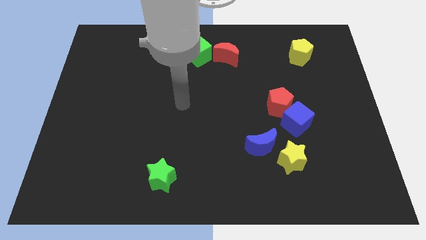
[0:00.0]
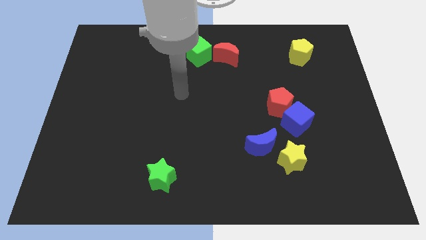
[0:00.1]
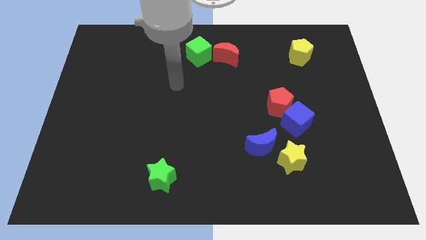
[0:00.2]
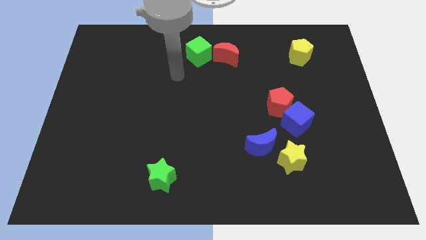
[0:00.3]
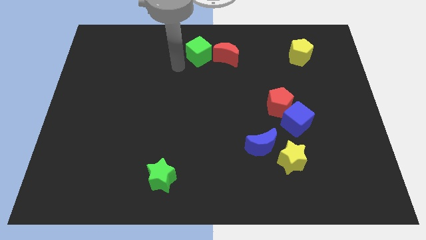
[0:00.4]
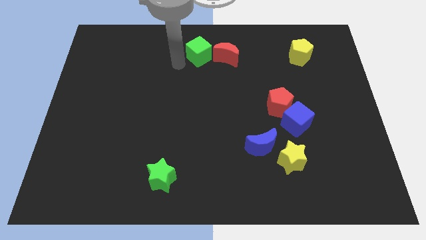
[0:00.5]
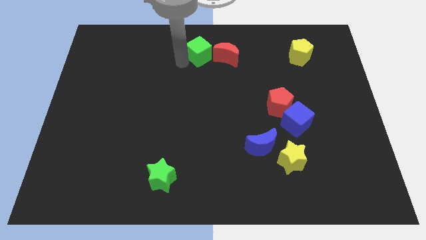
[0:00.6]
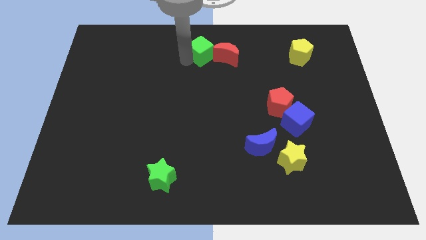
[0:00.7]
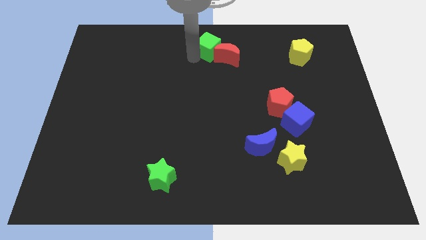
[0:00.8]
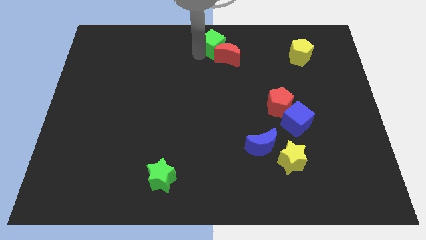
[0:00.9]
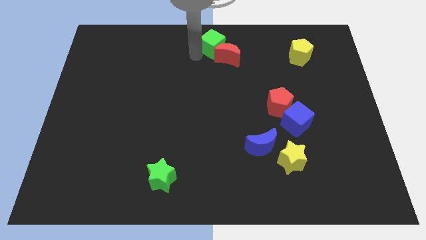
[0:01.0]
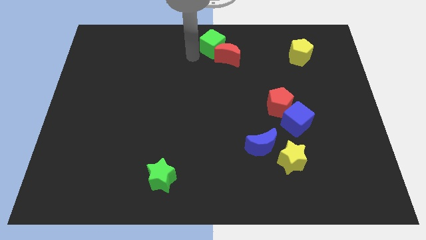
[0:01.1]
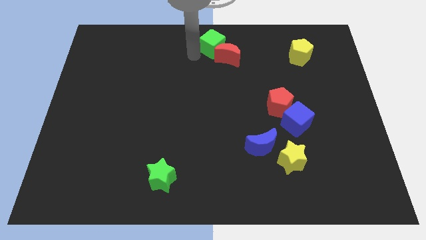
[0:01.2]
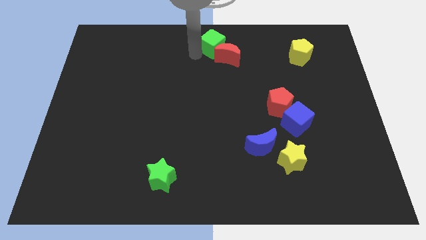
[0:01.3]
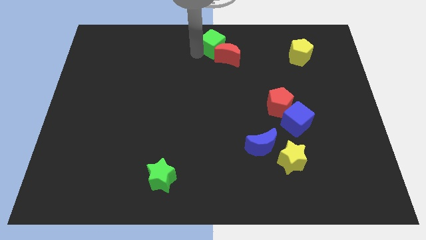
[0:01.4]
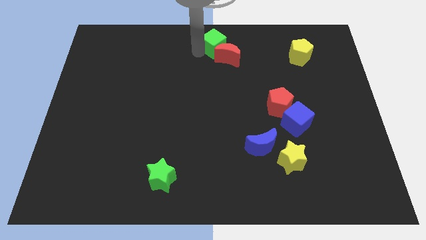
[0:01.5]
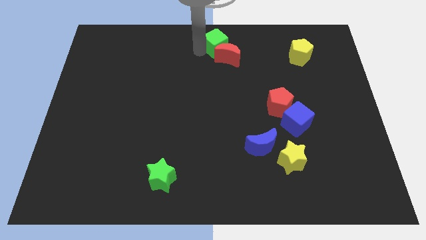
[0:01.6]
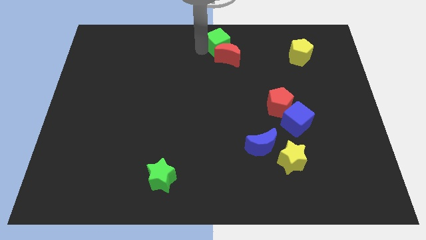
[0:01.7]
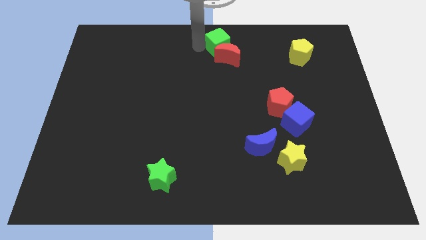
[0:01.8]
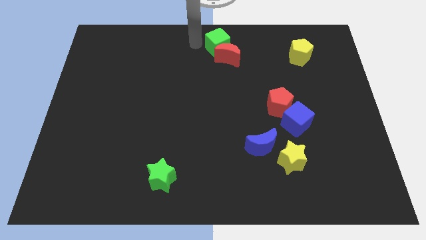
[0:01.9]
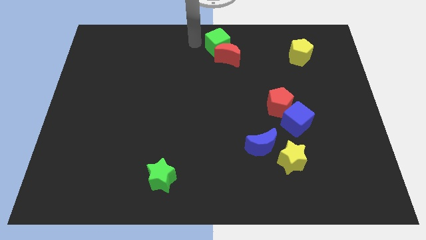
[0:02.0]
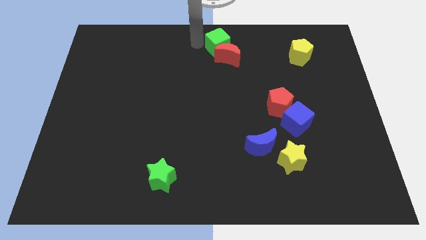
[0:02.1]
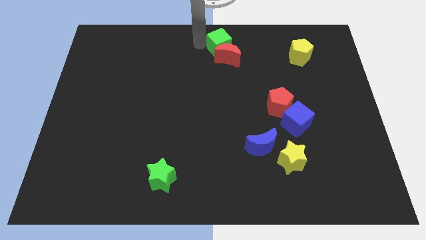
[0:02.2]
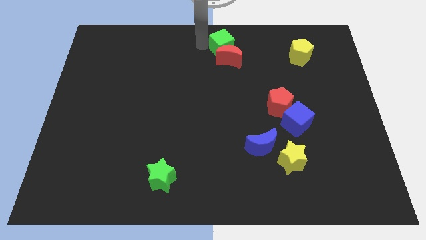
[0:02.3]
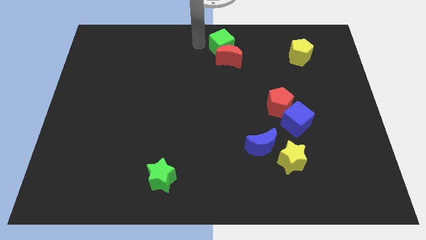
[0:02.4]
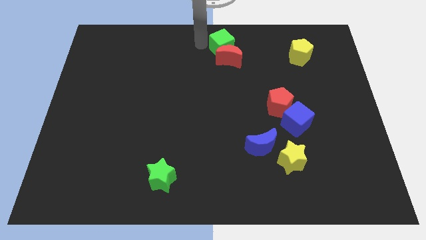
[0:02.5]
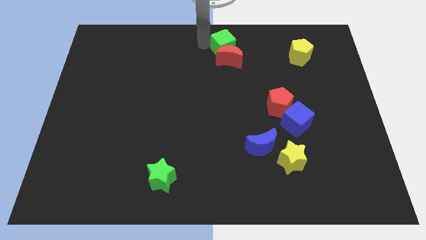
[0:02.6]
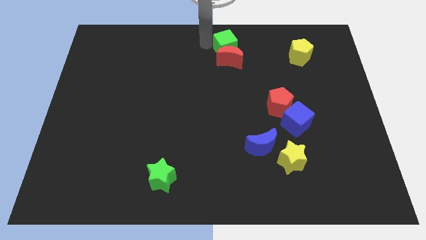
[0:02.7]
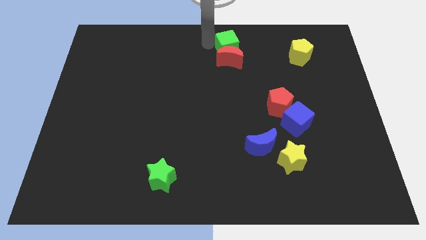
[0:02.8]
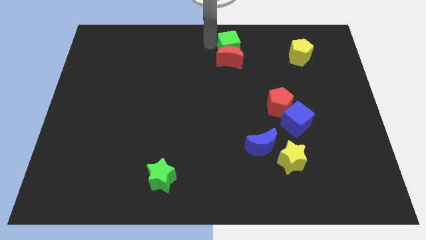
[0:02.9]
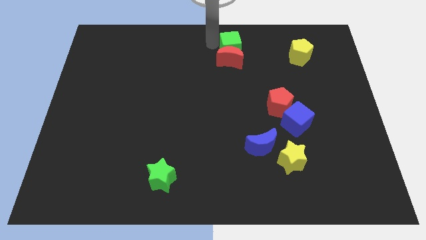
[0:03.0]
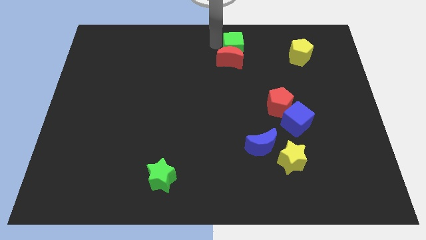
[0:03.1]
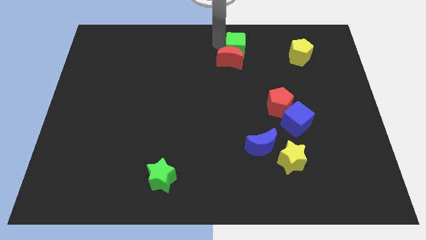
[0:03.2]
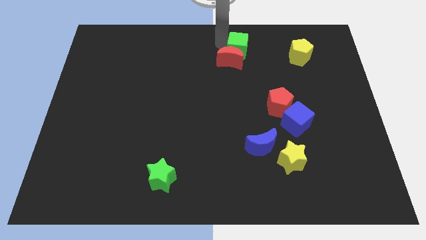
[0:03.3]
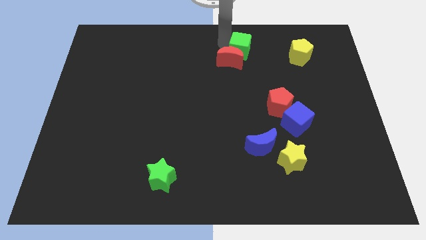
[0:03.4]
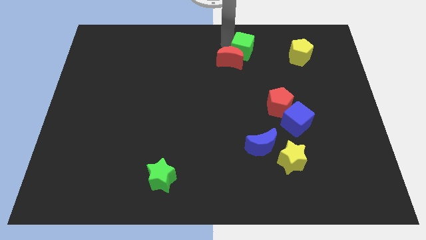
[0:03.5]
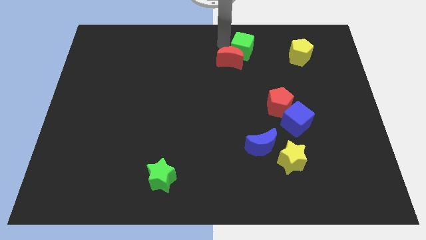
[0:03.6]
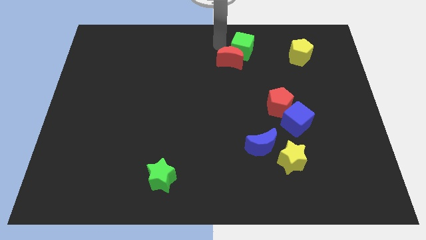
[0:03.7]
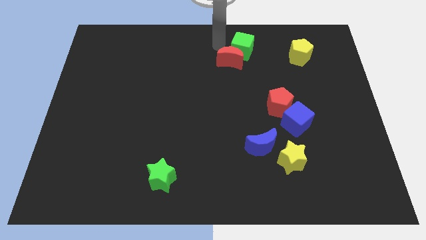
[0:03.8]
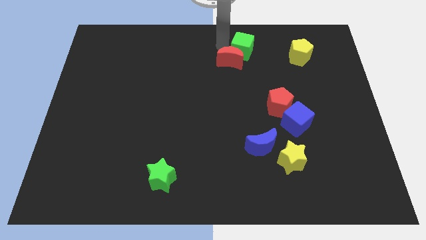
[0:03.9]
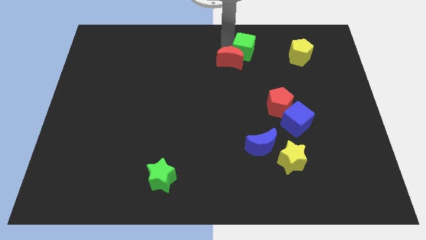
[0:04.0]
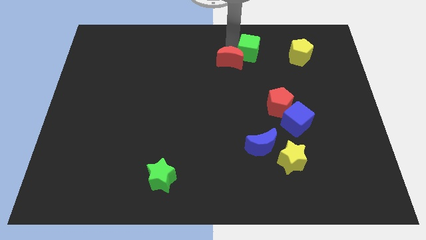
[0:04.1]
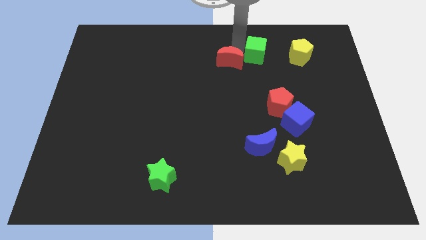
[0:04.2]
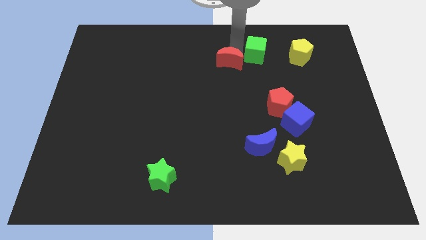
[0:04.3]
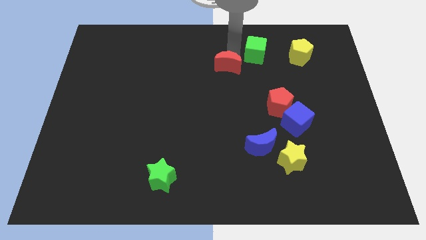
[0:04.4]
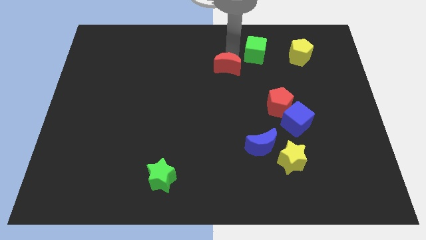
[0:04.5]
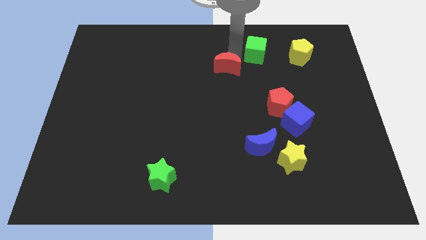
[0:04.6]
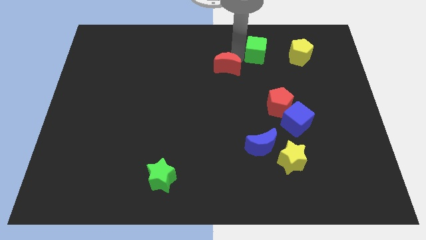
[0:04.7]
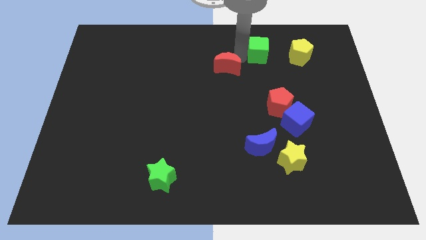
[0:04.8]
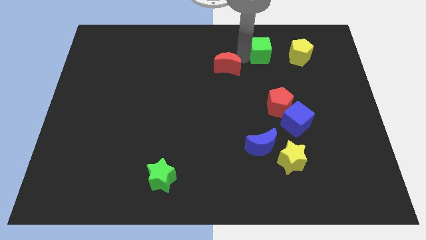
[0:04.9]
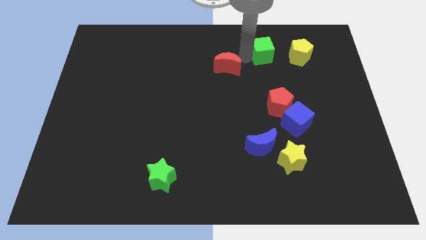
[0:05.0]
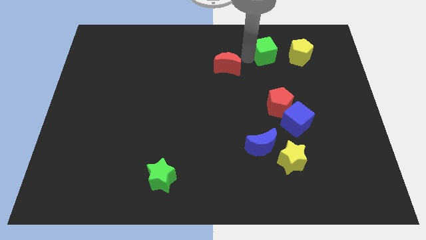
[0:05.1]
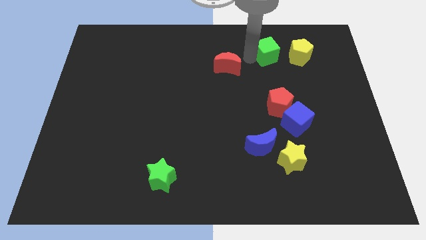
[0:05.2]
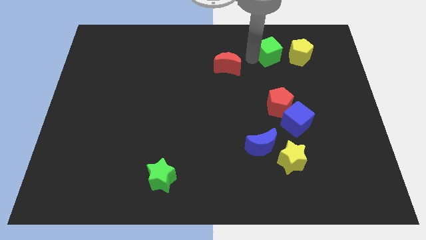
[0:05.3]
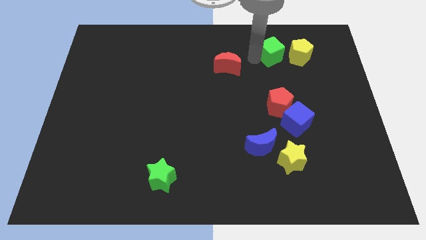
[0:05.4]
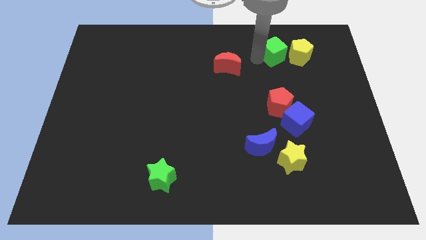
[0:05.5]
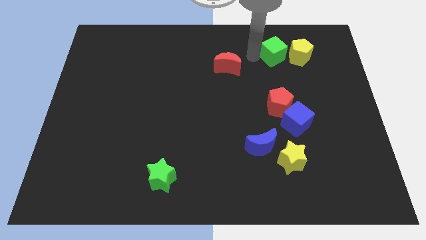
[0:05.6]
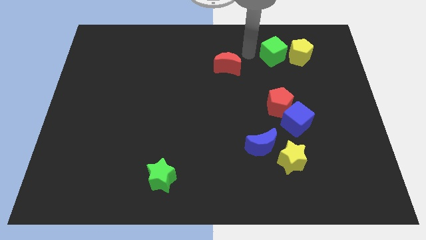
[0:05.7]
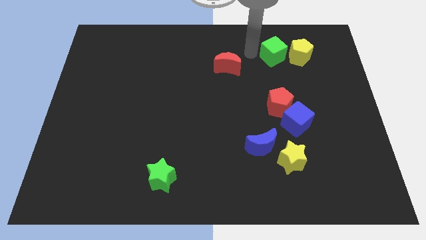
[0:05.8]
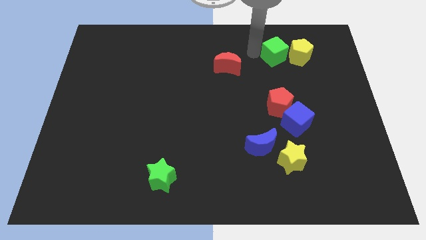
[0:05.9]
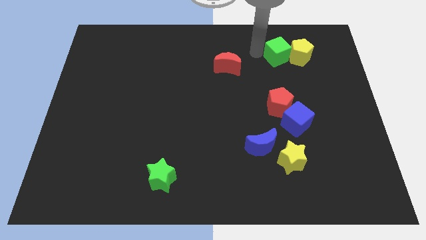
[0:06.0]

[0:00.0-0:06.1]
push the green cube next to the yellow pentagon

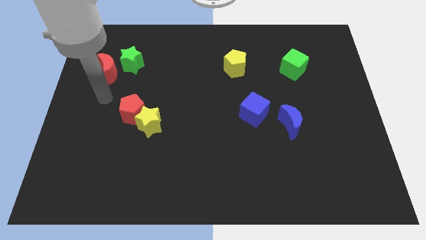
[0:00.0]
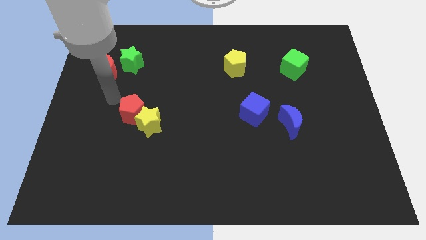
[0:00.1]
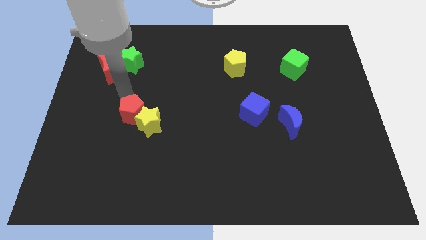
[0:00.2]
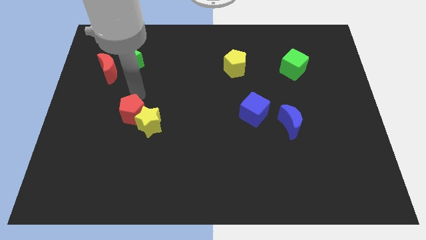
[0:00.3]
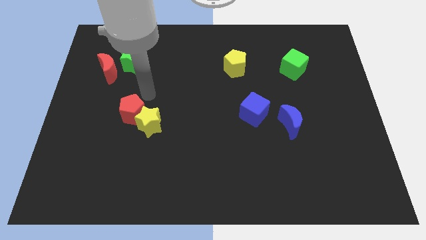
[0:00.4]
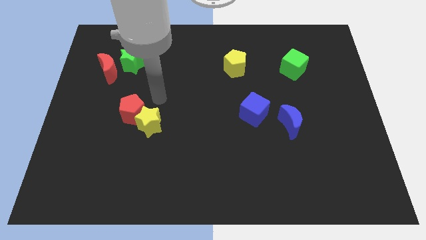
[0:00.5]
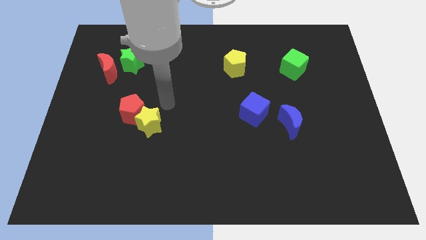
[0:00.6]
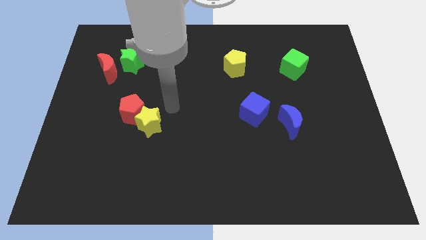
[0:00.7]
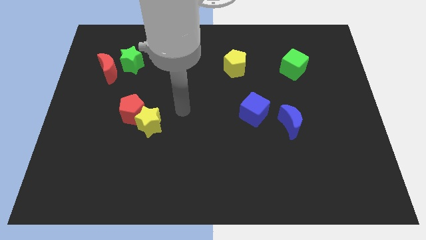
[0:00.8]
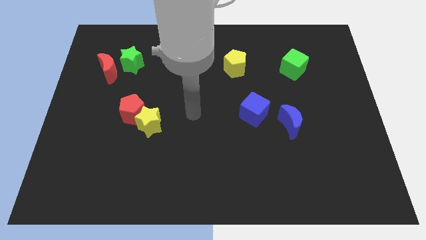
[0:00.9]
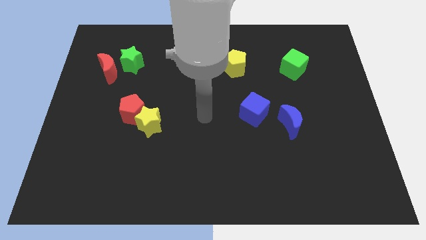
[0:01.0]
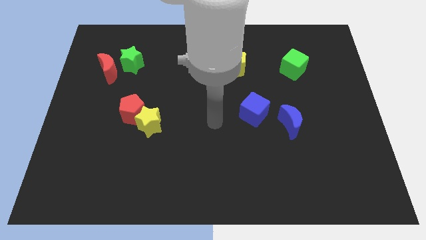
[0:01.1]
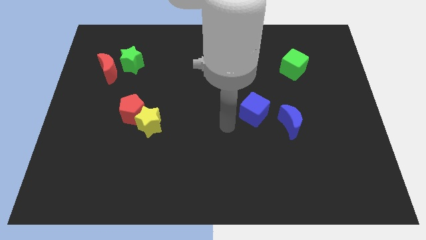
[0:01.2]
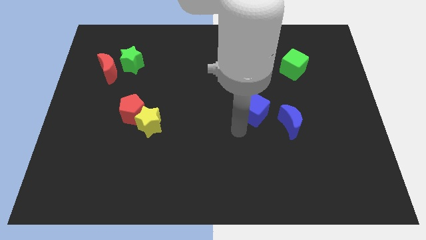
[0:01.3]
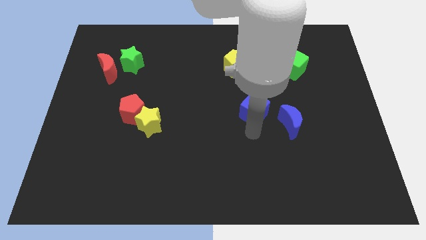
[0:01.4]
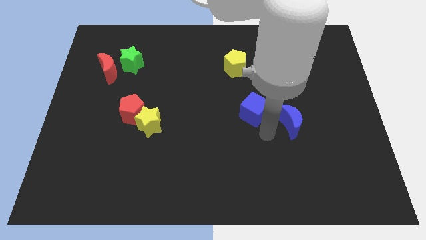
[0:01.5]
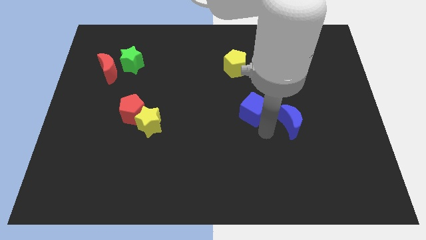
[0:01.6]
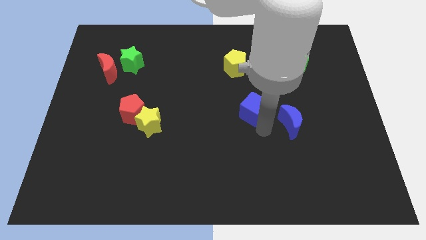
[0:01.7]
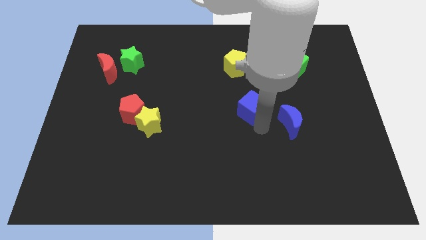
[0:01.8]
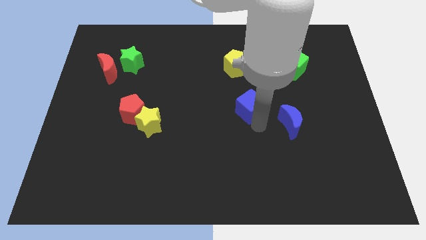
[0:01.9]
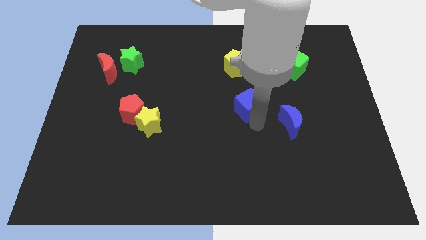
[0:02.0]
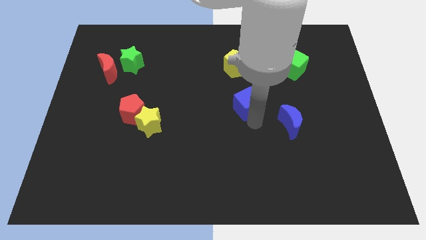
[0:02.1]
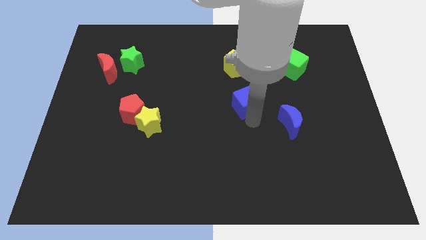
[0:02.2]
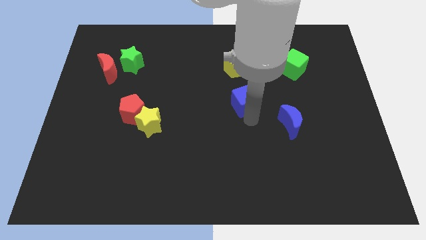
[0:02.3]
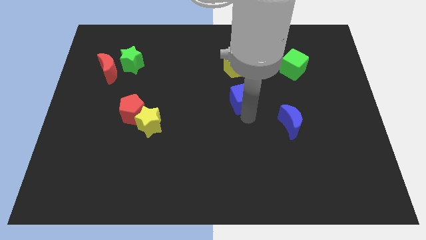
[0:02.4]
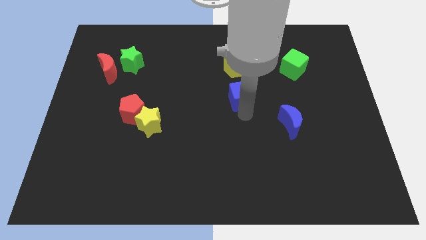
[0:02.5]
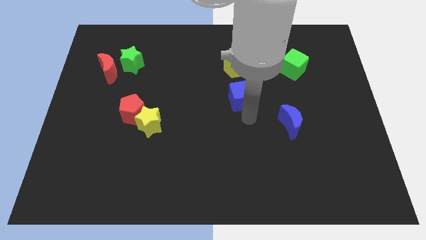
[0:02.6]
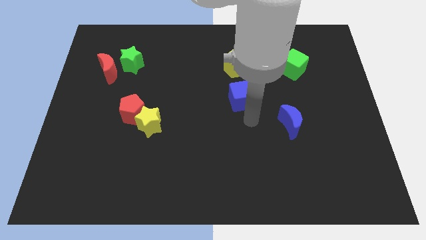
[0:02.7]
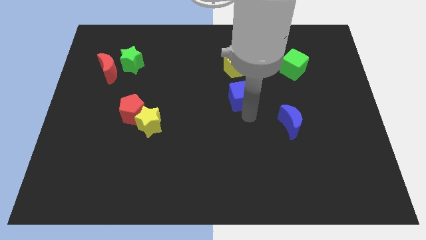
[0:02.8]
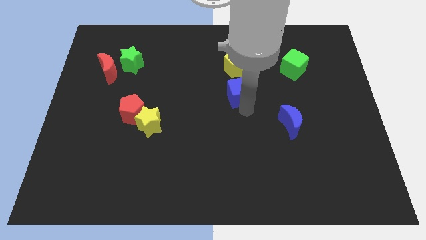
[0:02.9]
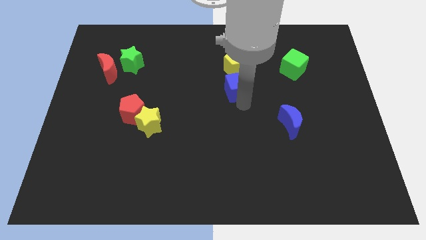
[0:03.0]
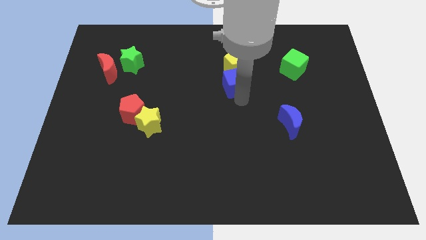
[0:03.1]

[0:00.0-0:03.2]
move the blue cube next to the yellow pentagon
